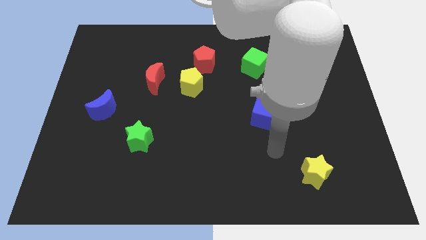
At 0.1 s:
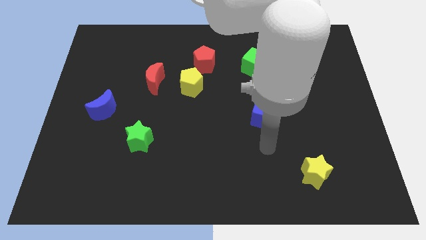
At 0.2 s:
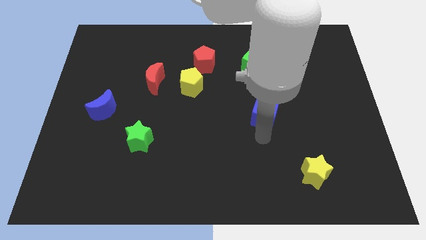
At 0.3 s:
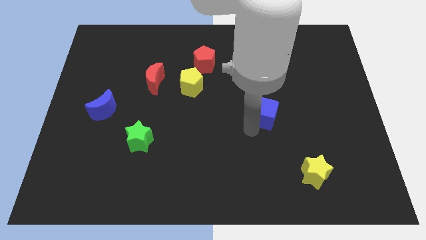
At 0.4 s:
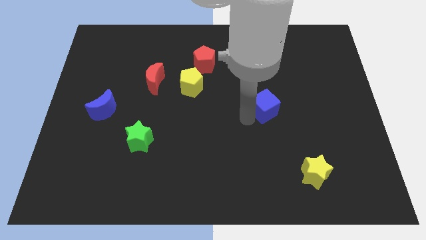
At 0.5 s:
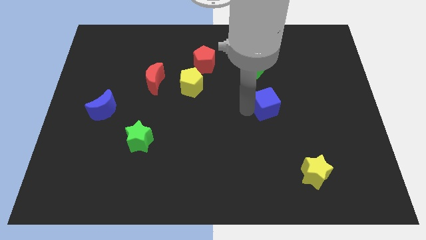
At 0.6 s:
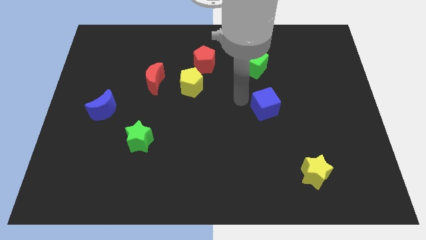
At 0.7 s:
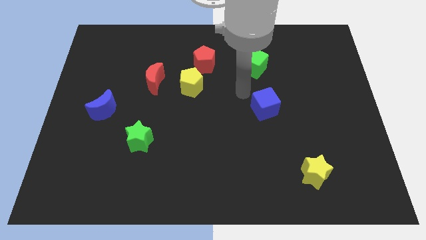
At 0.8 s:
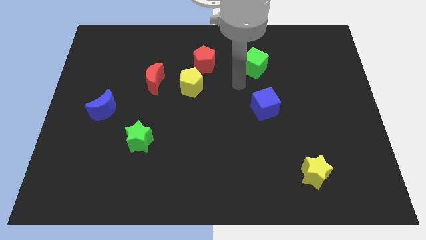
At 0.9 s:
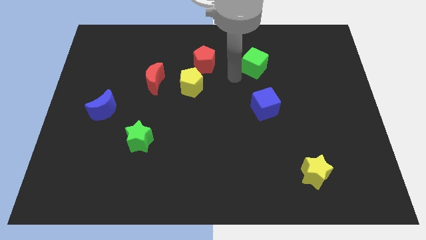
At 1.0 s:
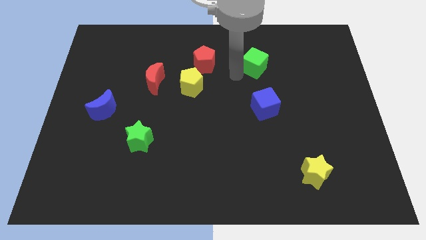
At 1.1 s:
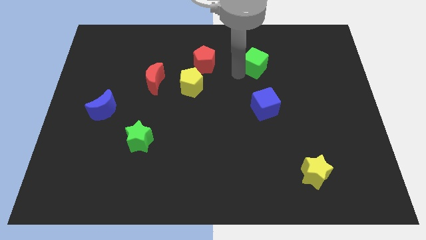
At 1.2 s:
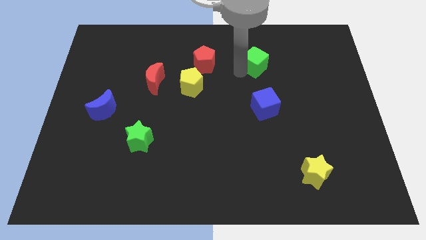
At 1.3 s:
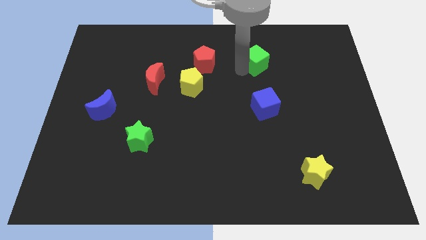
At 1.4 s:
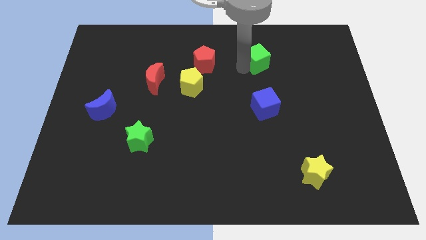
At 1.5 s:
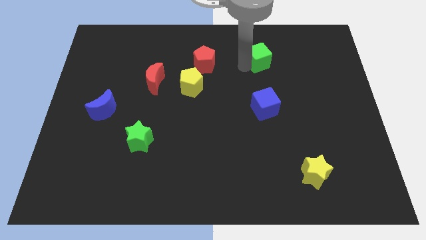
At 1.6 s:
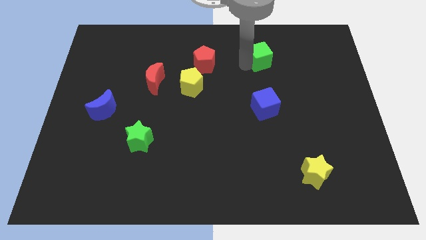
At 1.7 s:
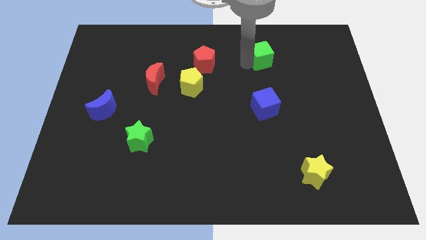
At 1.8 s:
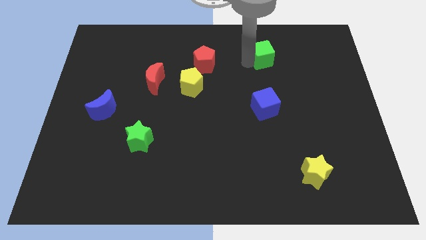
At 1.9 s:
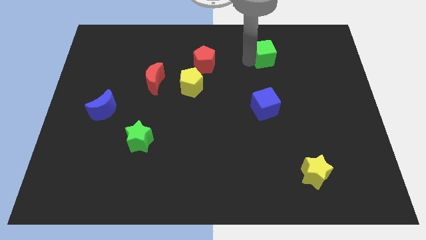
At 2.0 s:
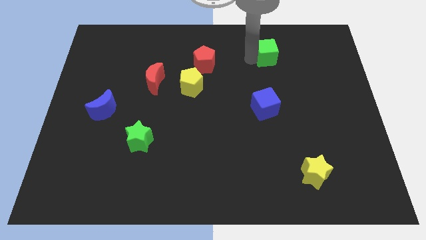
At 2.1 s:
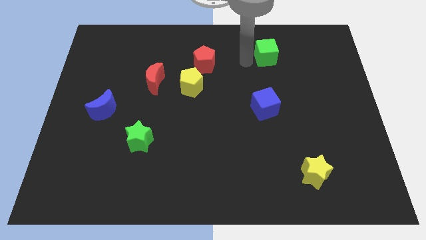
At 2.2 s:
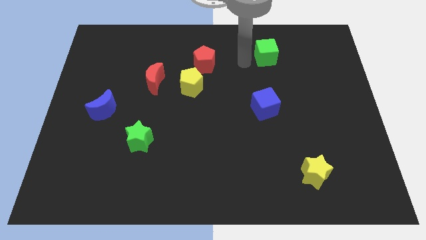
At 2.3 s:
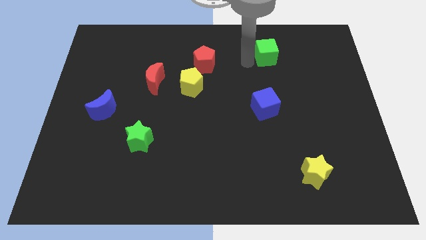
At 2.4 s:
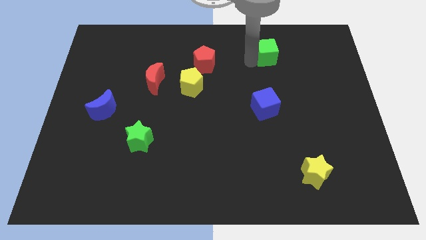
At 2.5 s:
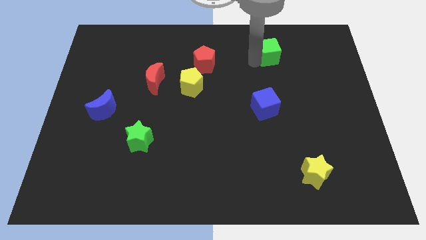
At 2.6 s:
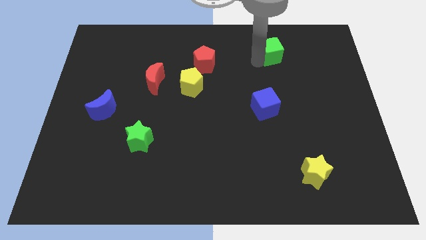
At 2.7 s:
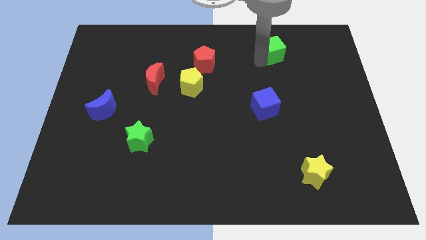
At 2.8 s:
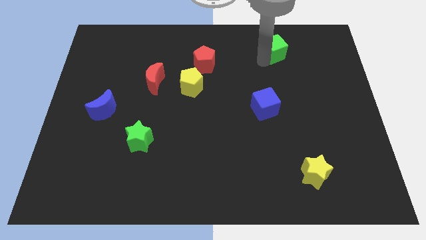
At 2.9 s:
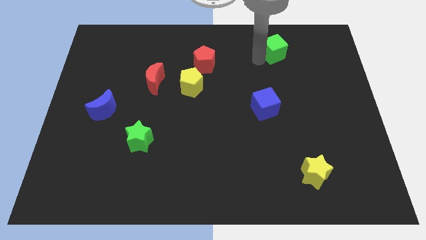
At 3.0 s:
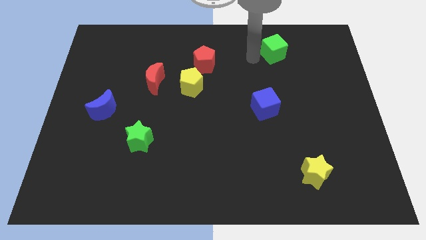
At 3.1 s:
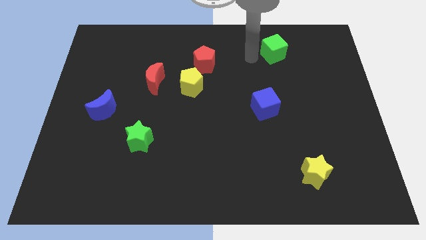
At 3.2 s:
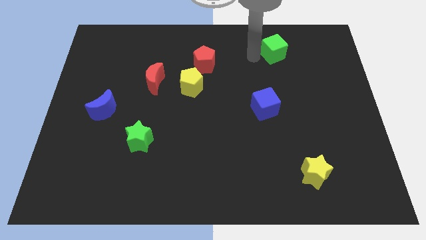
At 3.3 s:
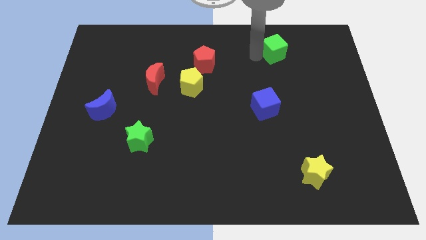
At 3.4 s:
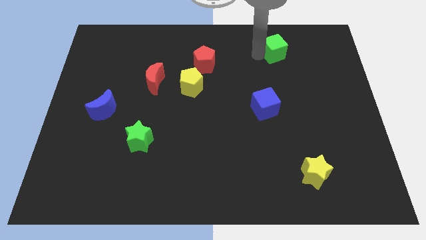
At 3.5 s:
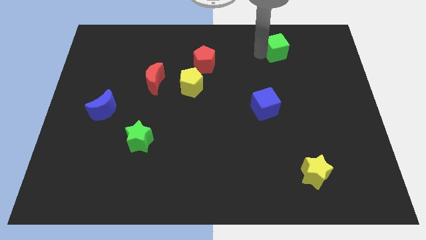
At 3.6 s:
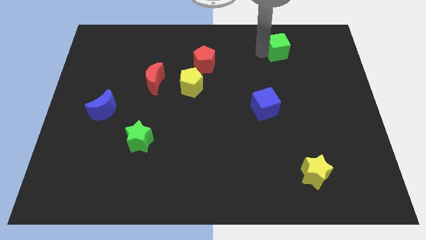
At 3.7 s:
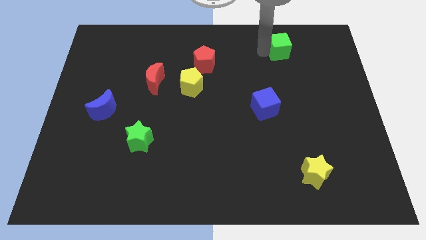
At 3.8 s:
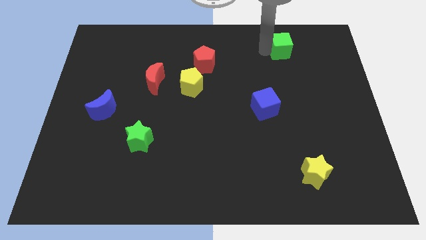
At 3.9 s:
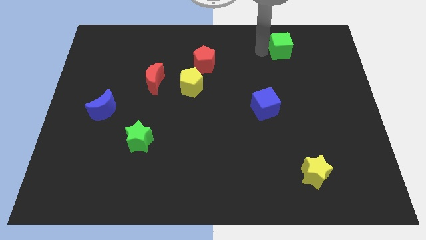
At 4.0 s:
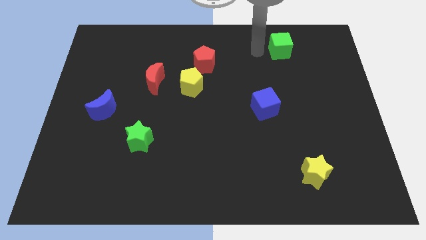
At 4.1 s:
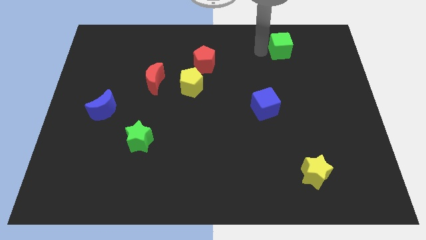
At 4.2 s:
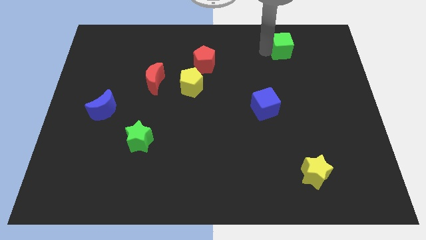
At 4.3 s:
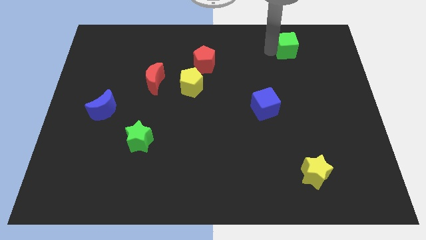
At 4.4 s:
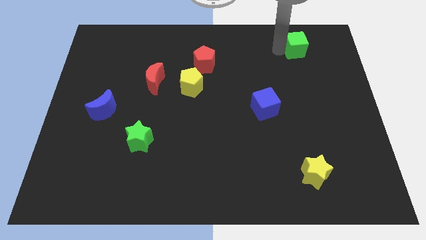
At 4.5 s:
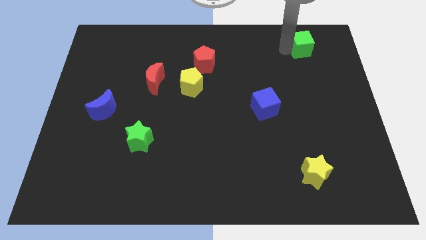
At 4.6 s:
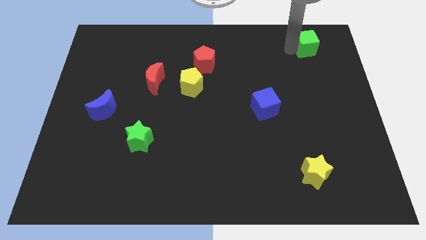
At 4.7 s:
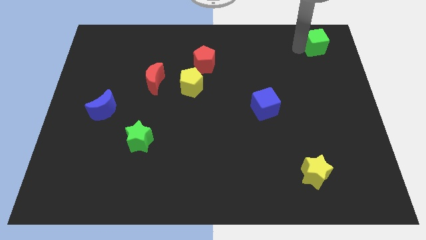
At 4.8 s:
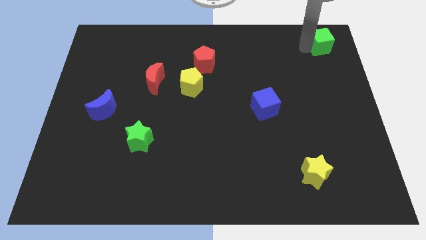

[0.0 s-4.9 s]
push the green cube to the upper right corner

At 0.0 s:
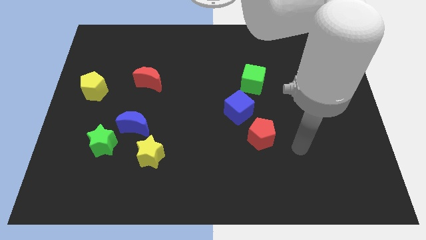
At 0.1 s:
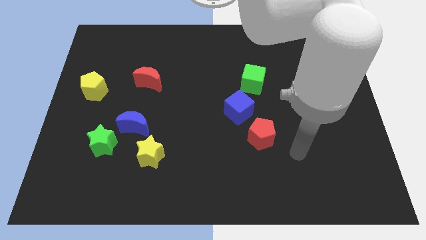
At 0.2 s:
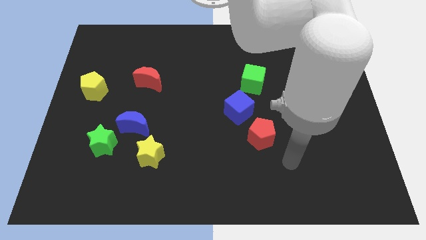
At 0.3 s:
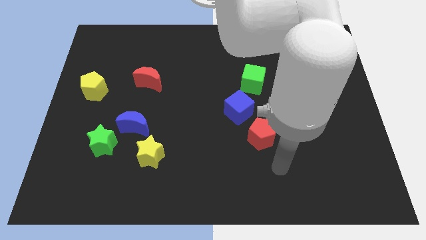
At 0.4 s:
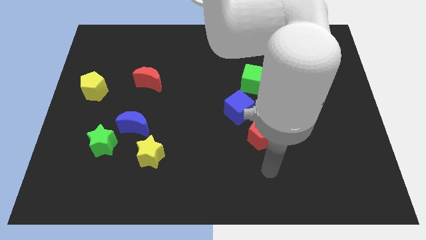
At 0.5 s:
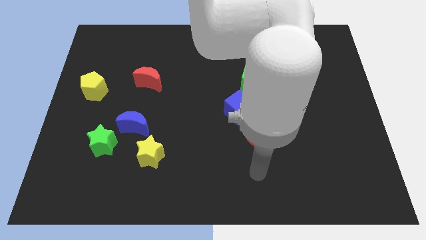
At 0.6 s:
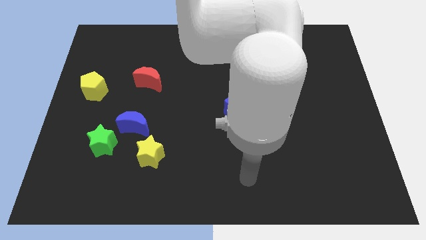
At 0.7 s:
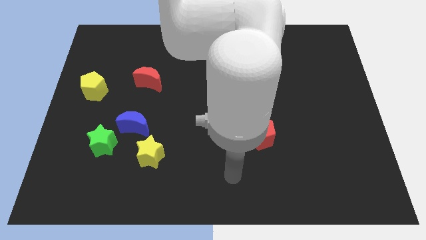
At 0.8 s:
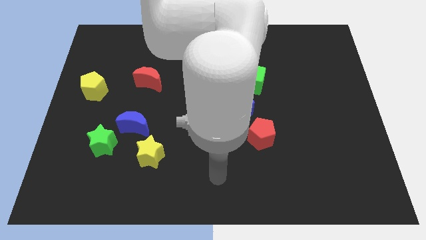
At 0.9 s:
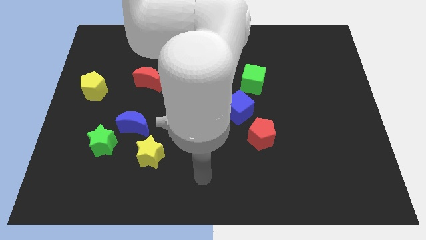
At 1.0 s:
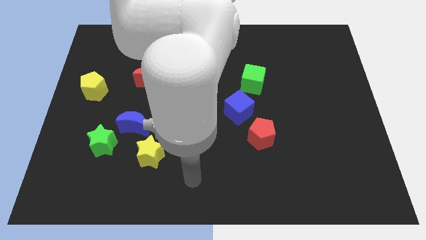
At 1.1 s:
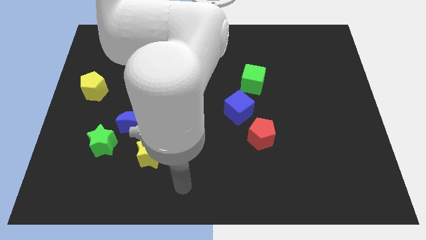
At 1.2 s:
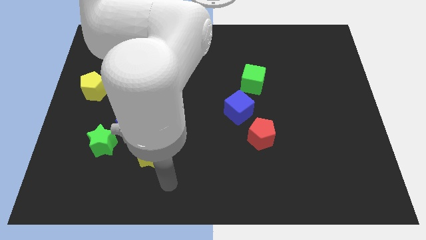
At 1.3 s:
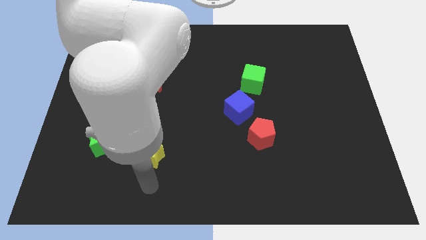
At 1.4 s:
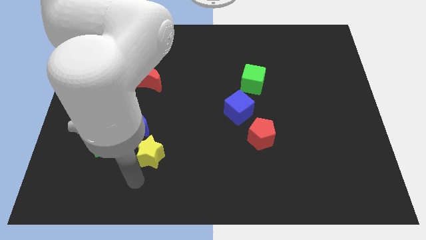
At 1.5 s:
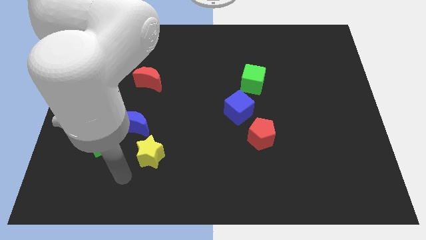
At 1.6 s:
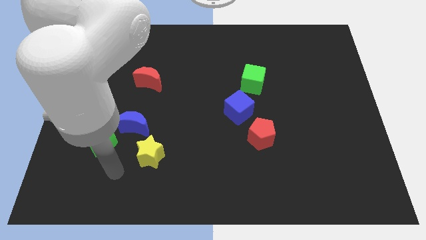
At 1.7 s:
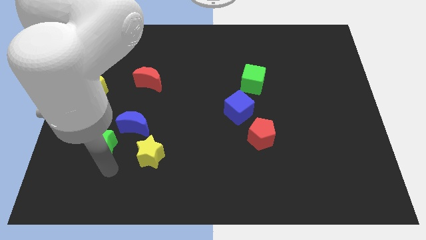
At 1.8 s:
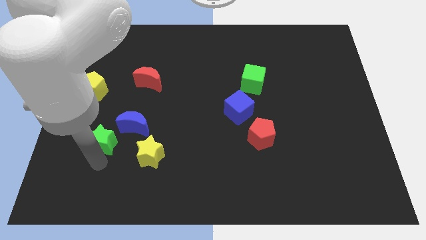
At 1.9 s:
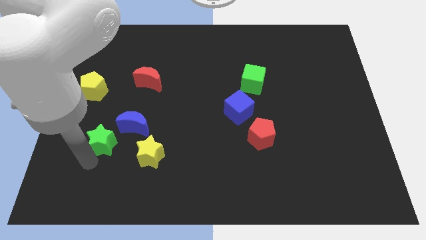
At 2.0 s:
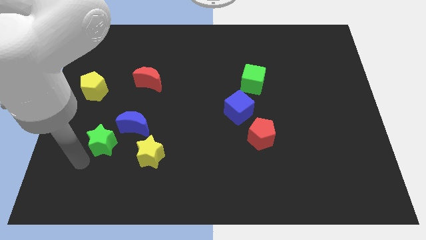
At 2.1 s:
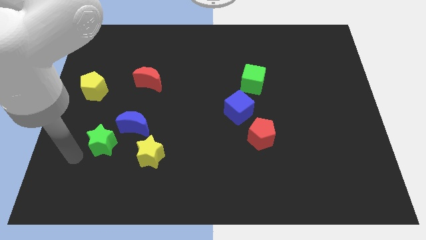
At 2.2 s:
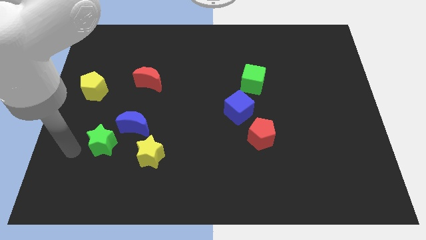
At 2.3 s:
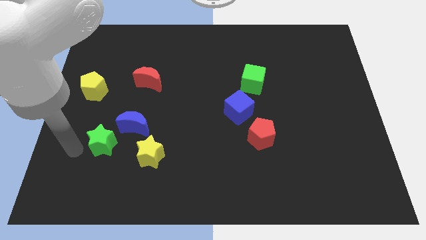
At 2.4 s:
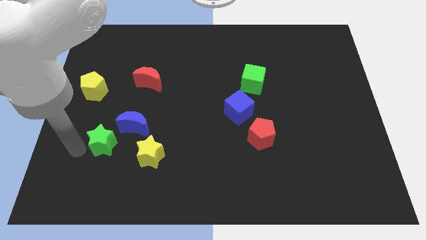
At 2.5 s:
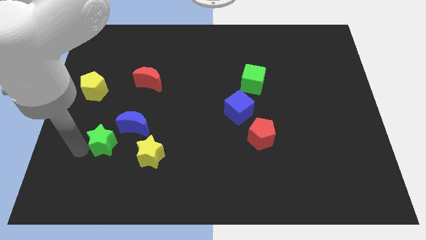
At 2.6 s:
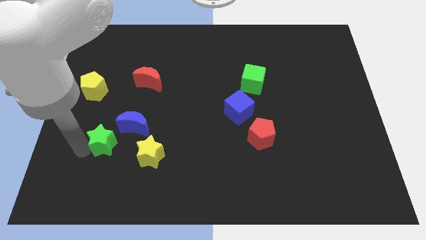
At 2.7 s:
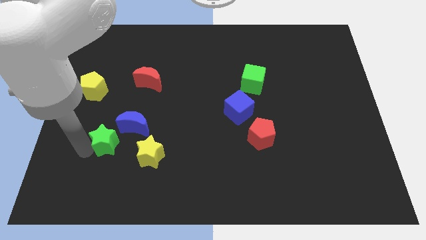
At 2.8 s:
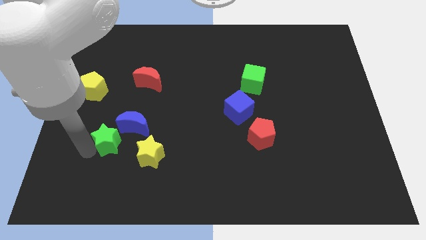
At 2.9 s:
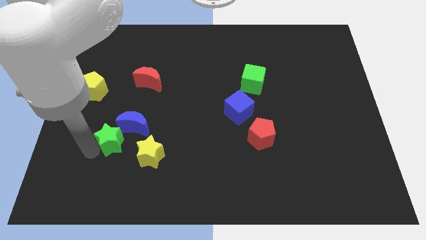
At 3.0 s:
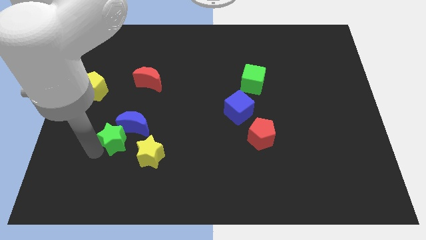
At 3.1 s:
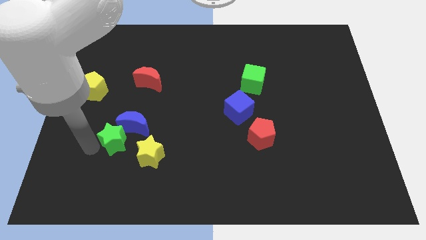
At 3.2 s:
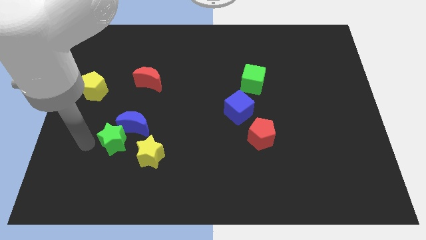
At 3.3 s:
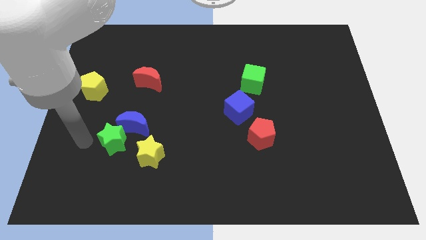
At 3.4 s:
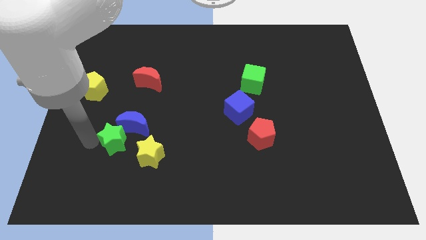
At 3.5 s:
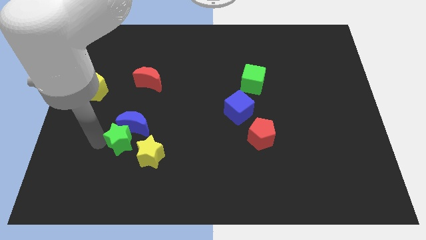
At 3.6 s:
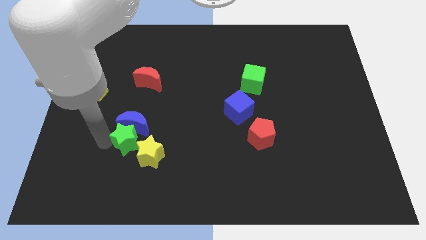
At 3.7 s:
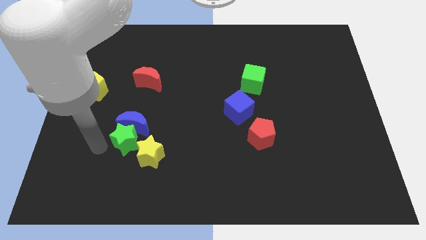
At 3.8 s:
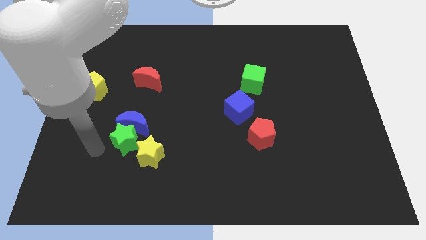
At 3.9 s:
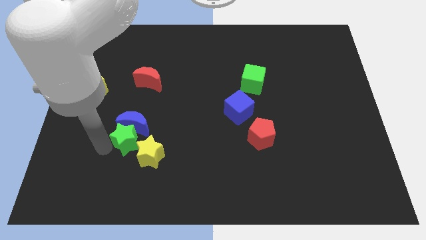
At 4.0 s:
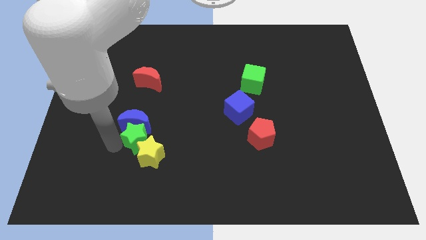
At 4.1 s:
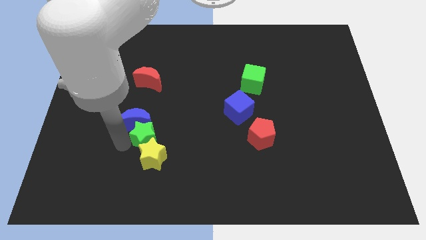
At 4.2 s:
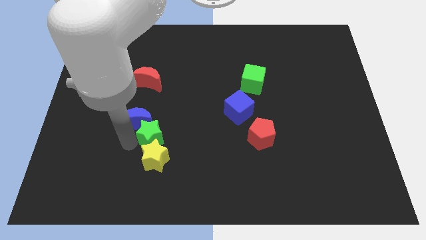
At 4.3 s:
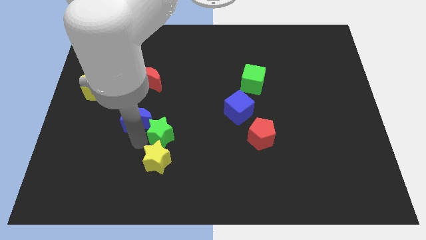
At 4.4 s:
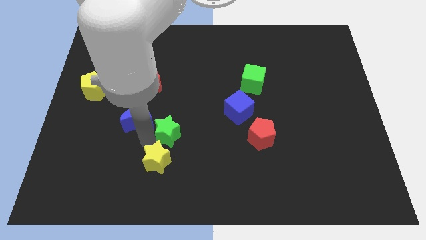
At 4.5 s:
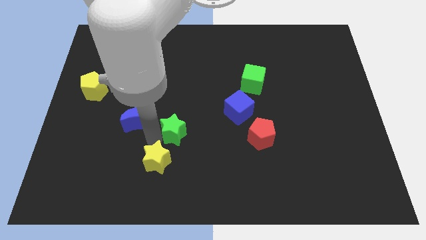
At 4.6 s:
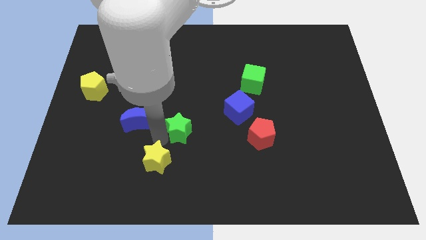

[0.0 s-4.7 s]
move the green star to the middle
